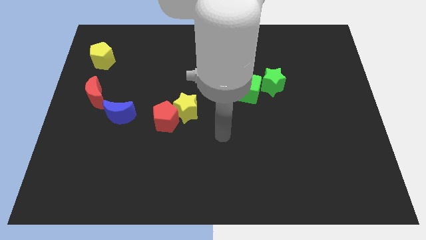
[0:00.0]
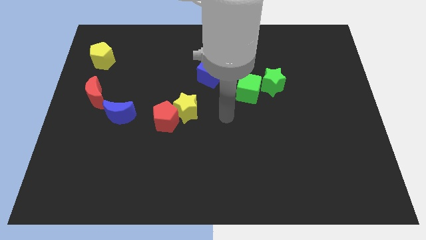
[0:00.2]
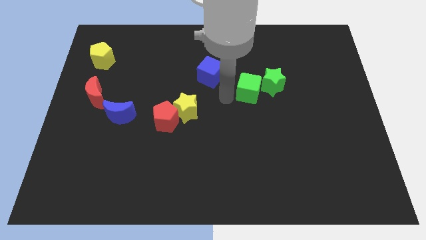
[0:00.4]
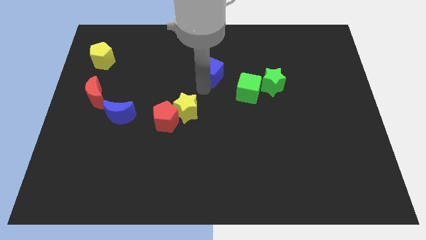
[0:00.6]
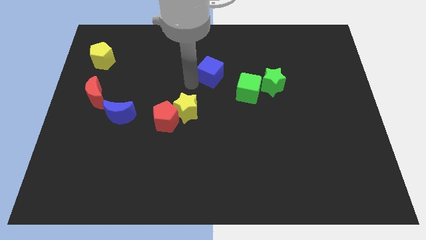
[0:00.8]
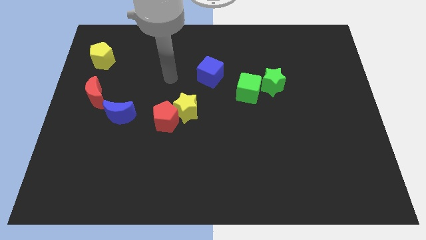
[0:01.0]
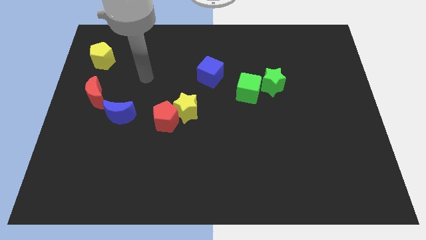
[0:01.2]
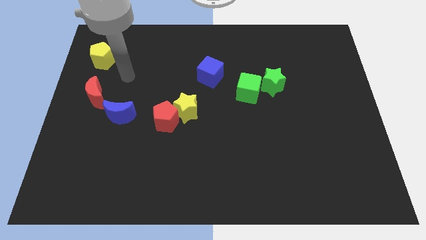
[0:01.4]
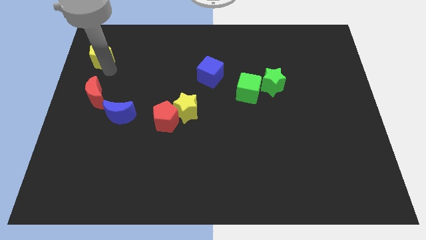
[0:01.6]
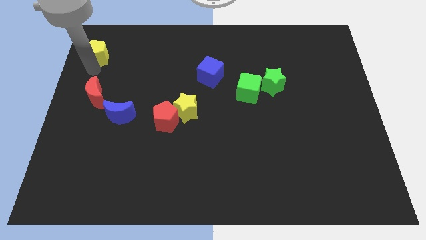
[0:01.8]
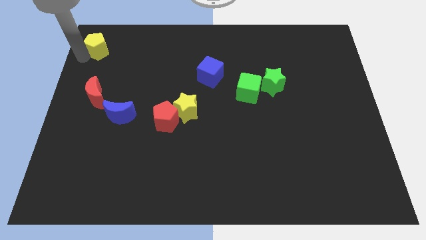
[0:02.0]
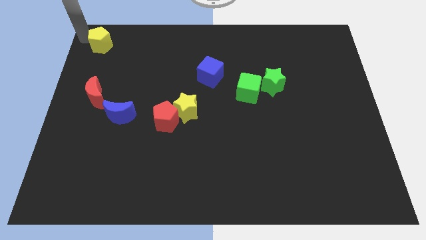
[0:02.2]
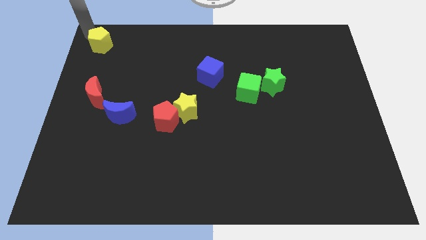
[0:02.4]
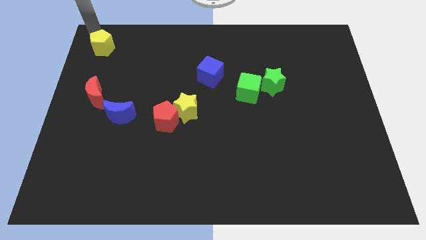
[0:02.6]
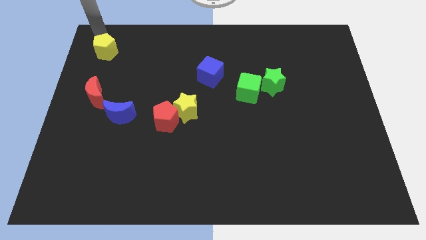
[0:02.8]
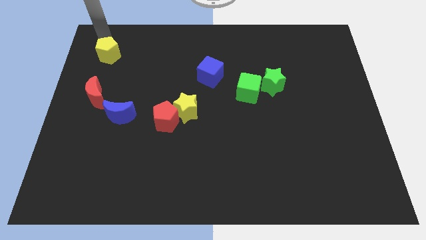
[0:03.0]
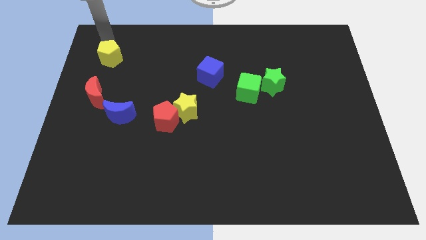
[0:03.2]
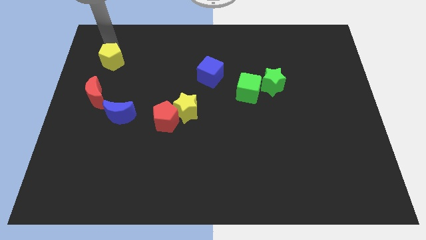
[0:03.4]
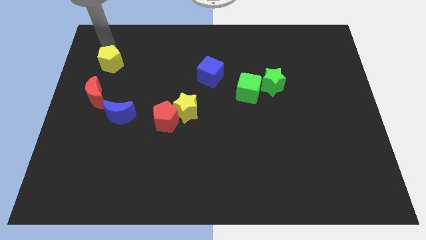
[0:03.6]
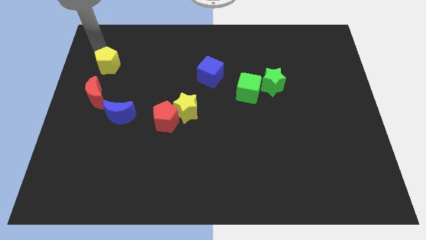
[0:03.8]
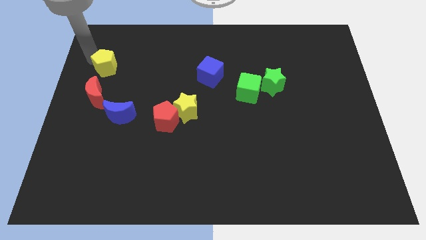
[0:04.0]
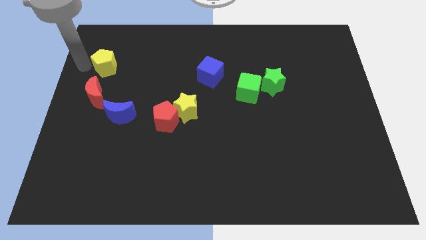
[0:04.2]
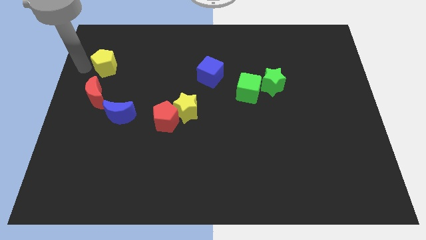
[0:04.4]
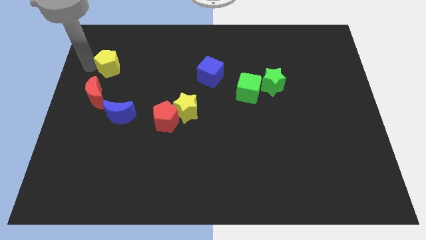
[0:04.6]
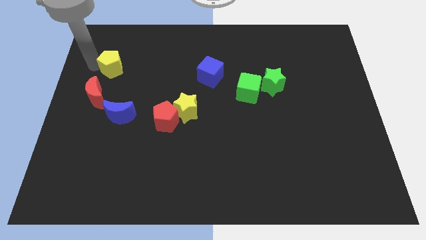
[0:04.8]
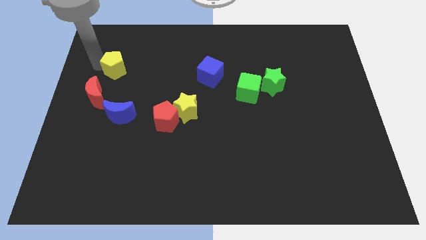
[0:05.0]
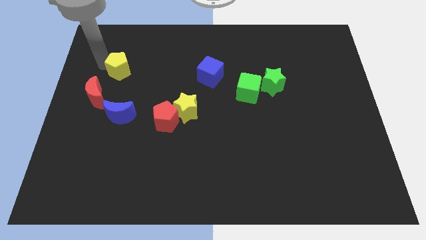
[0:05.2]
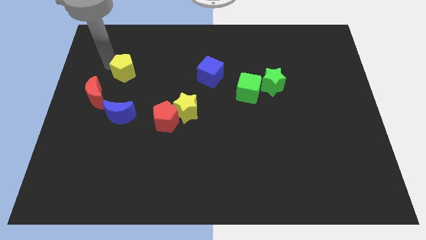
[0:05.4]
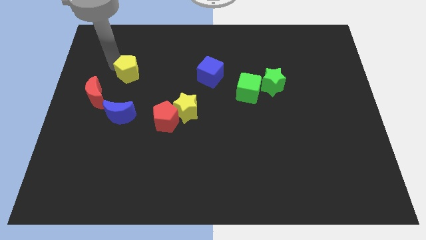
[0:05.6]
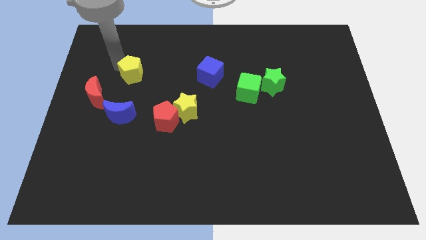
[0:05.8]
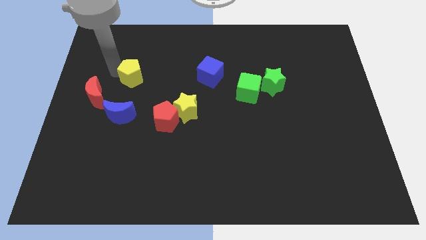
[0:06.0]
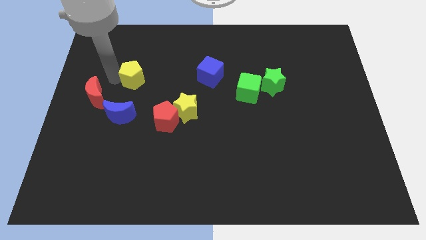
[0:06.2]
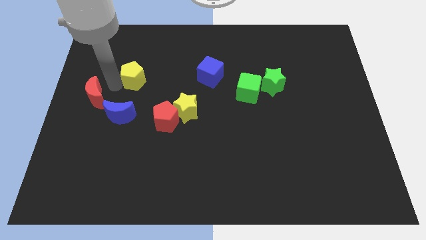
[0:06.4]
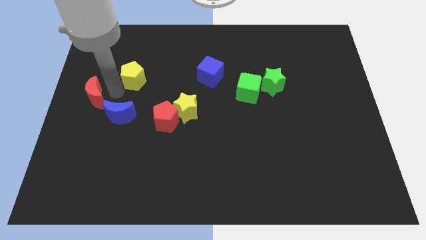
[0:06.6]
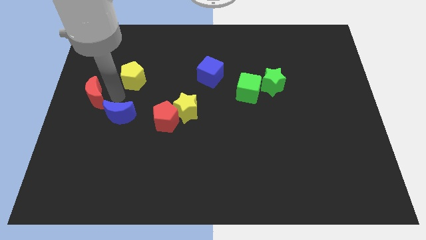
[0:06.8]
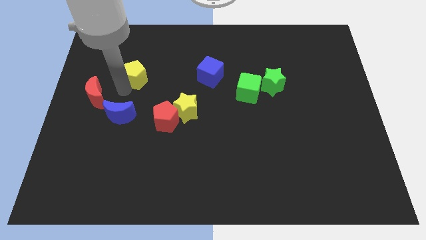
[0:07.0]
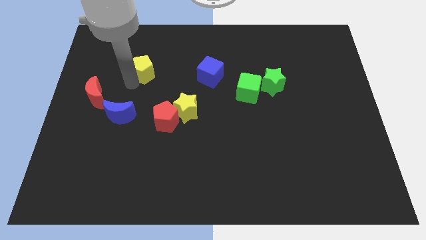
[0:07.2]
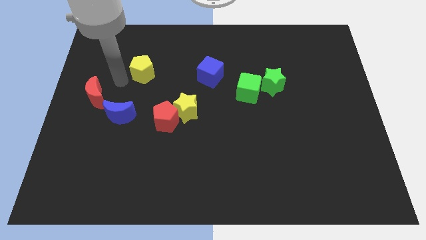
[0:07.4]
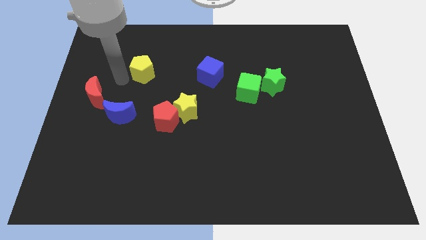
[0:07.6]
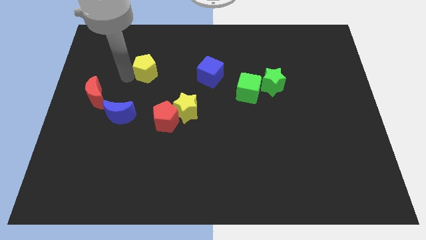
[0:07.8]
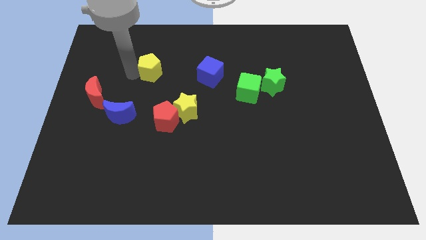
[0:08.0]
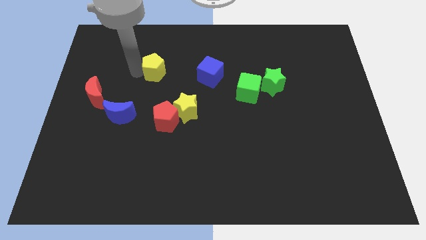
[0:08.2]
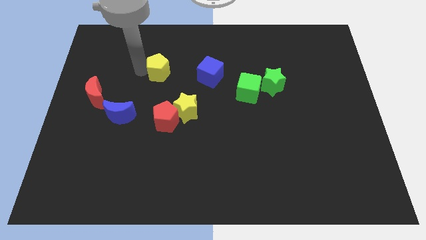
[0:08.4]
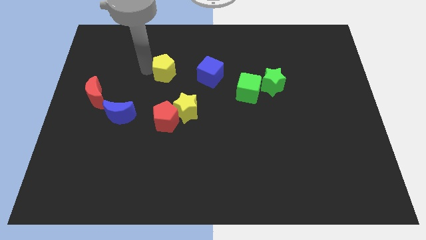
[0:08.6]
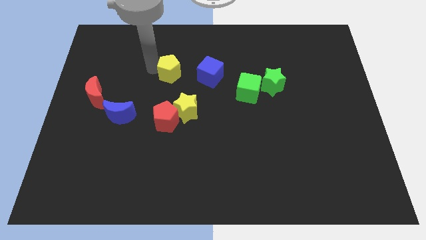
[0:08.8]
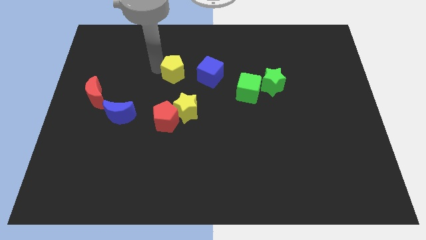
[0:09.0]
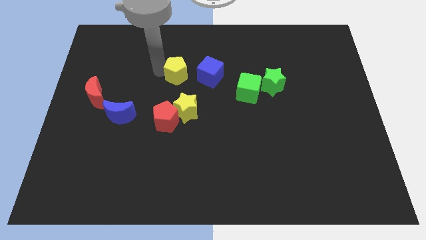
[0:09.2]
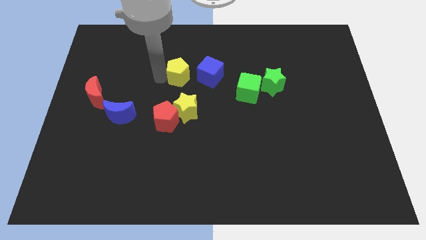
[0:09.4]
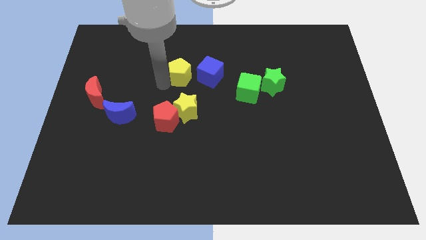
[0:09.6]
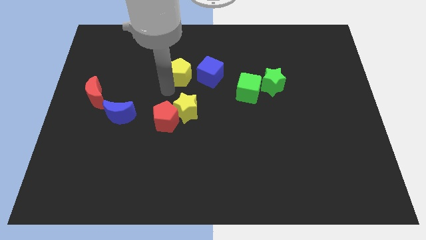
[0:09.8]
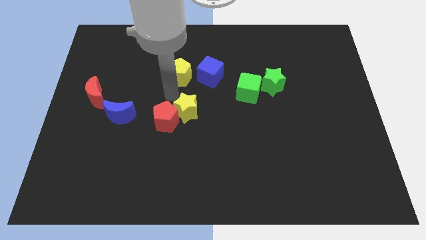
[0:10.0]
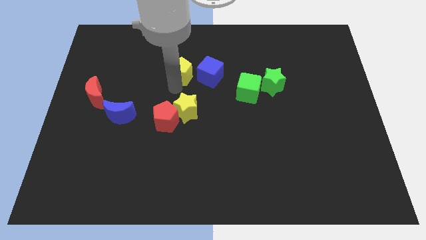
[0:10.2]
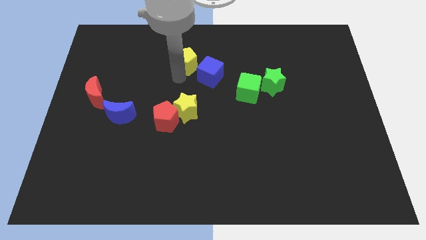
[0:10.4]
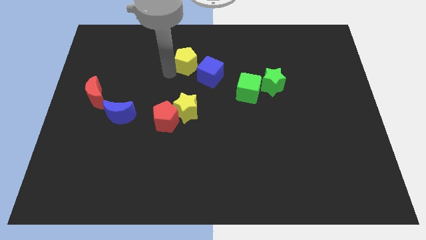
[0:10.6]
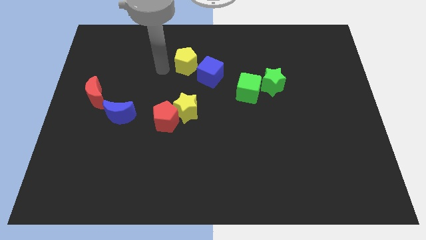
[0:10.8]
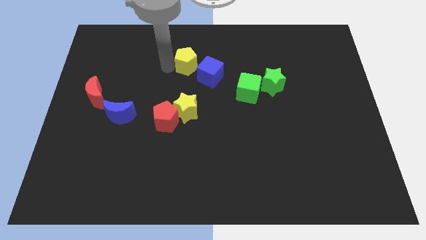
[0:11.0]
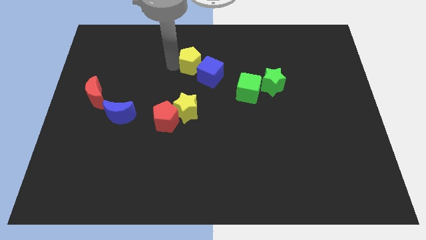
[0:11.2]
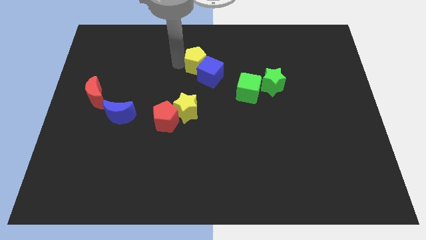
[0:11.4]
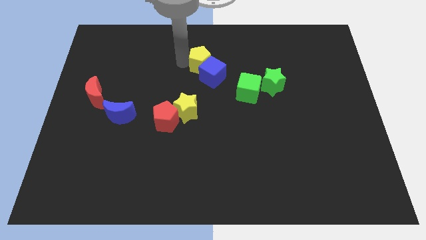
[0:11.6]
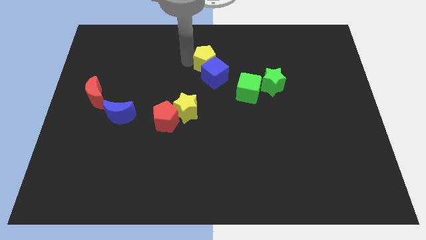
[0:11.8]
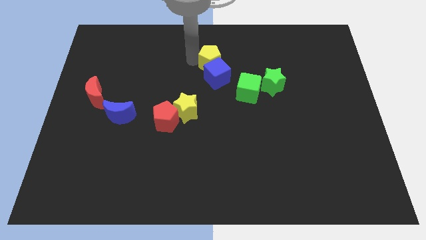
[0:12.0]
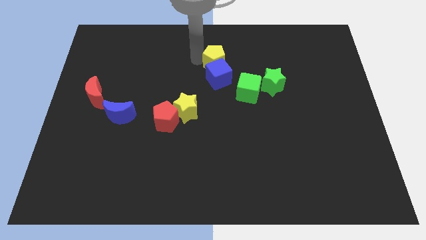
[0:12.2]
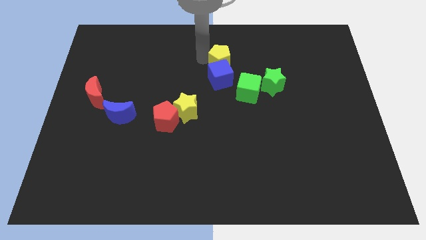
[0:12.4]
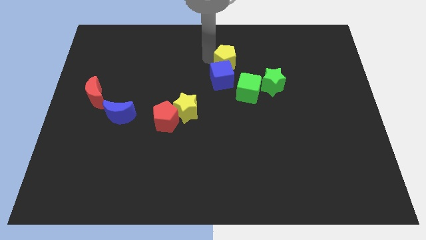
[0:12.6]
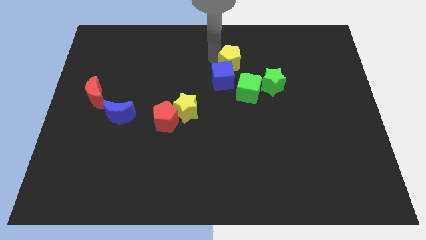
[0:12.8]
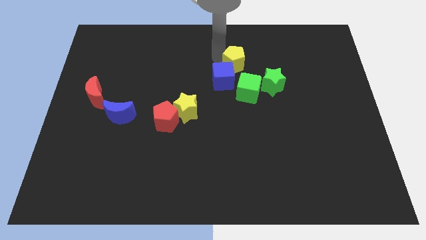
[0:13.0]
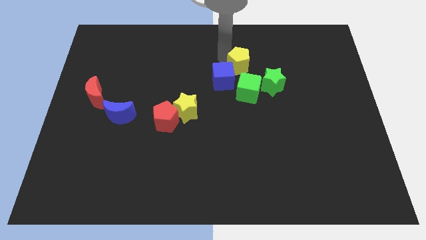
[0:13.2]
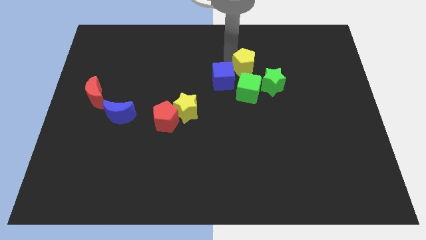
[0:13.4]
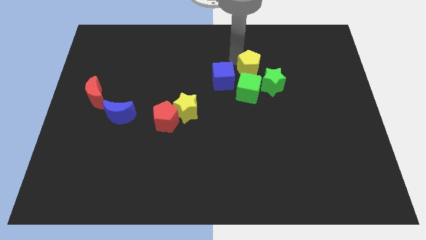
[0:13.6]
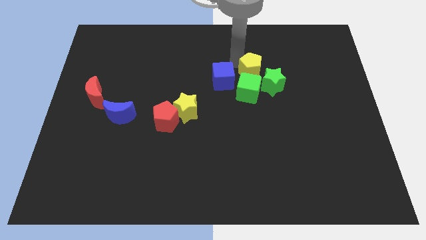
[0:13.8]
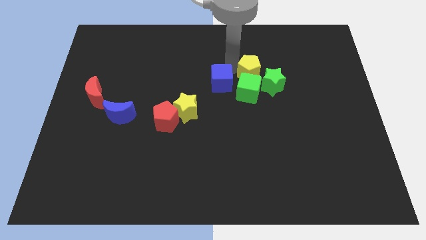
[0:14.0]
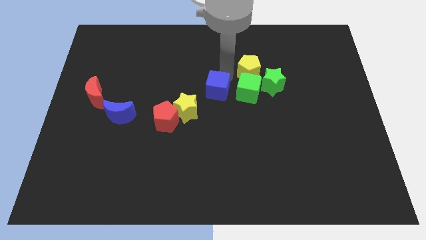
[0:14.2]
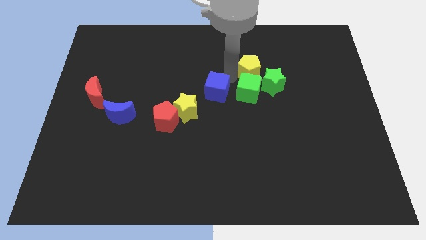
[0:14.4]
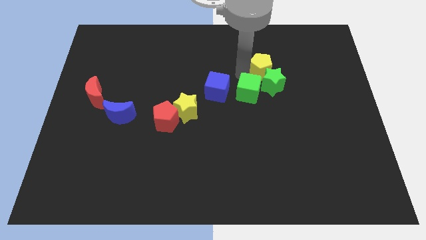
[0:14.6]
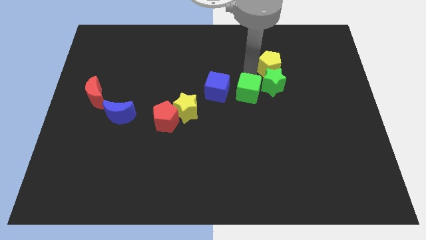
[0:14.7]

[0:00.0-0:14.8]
move the yellow pentagon diagonally up and to the right of the green star

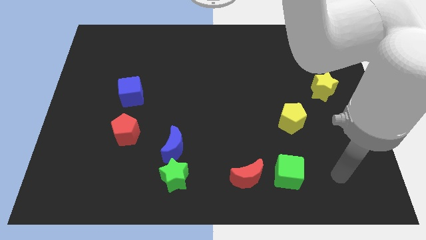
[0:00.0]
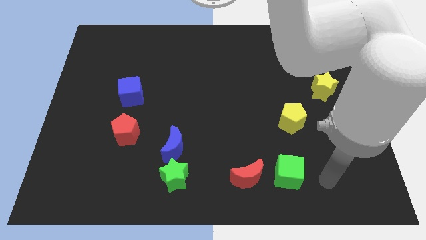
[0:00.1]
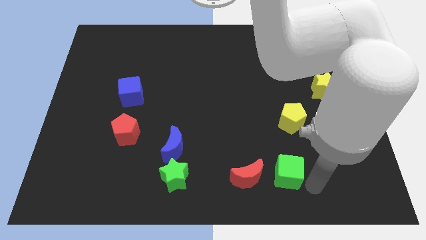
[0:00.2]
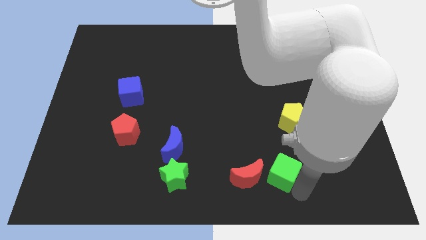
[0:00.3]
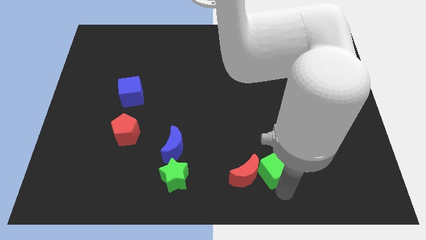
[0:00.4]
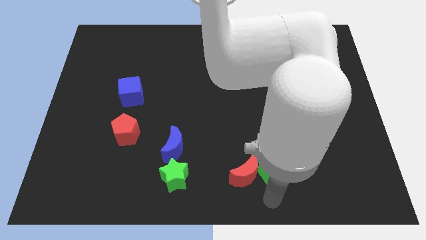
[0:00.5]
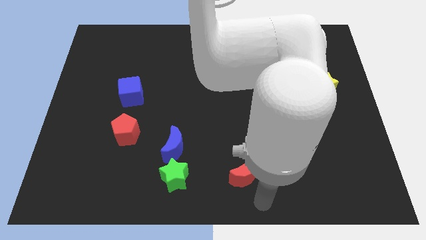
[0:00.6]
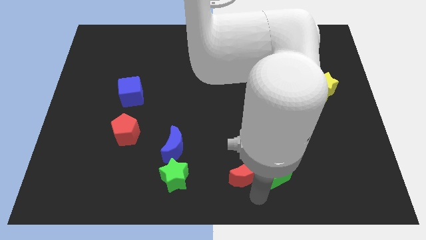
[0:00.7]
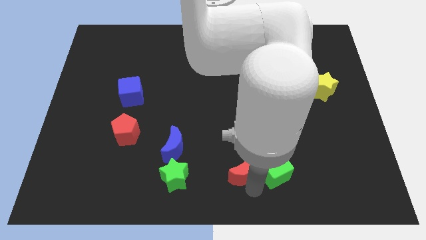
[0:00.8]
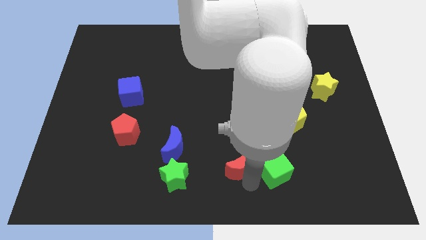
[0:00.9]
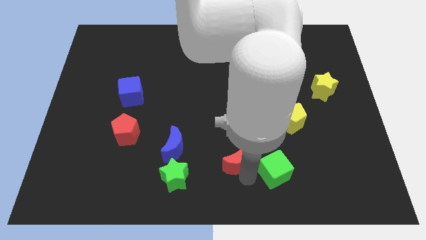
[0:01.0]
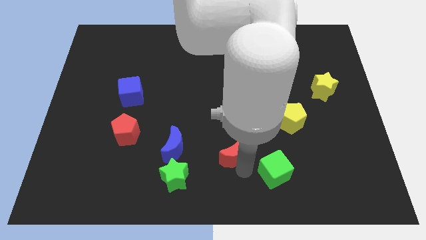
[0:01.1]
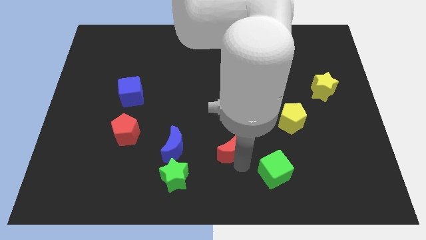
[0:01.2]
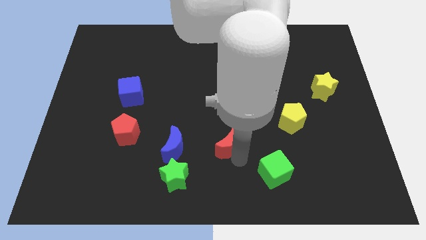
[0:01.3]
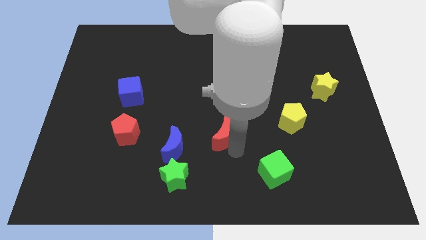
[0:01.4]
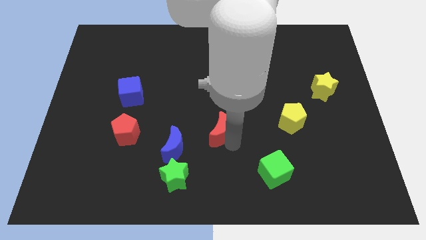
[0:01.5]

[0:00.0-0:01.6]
put the red moon to the top right of the blue moon
